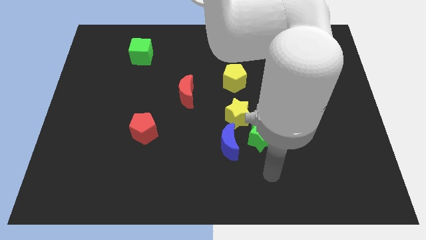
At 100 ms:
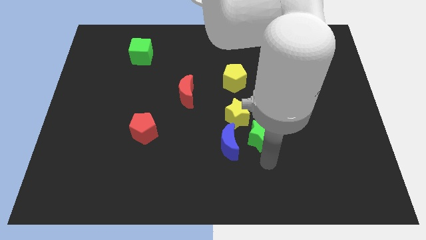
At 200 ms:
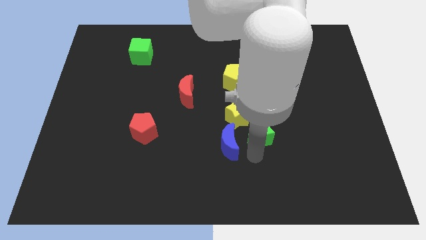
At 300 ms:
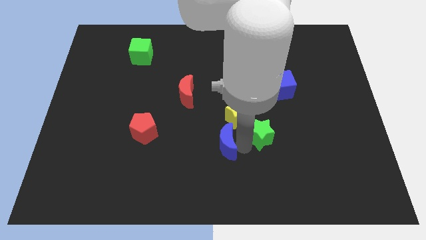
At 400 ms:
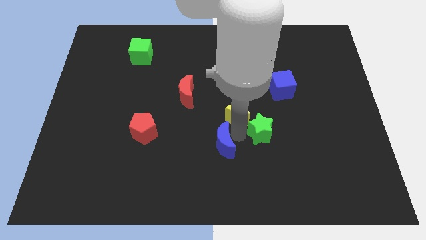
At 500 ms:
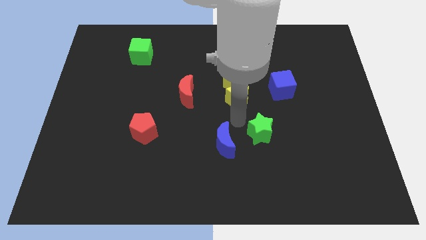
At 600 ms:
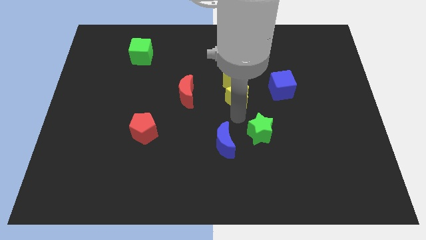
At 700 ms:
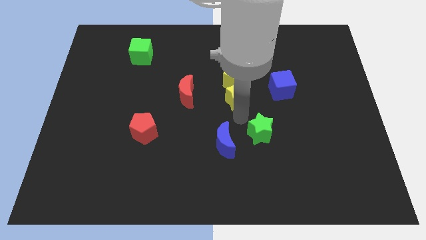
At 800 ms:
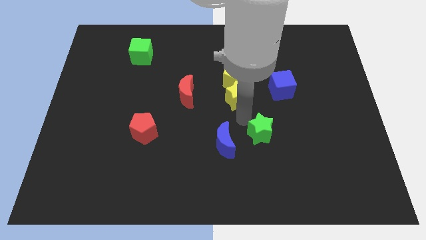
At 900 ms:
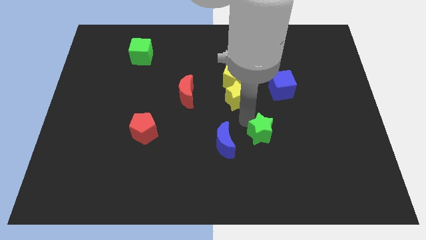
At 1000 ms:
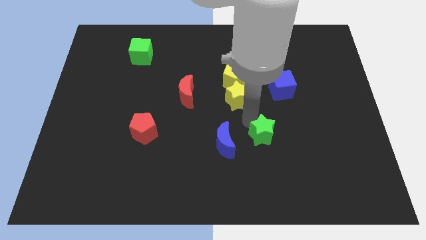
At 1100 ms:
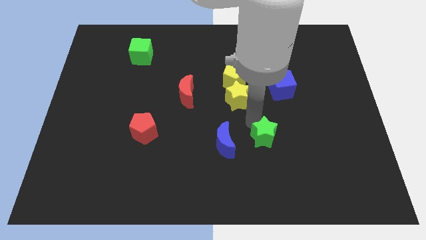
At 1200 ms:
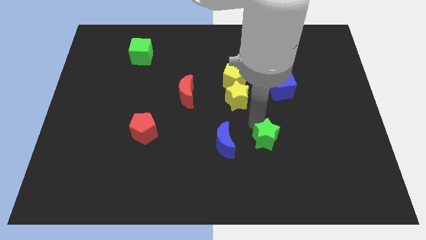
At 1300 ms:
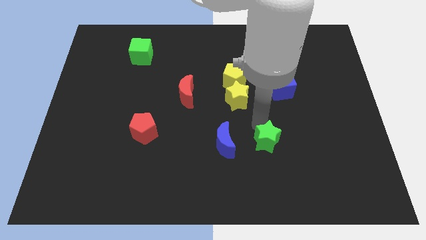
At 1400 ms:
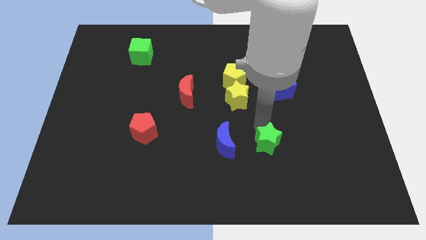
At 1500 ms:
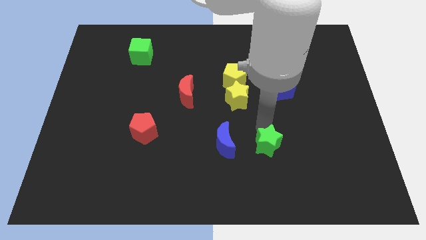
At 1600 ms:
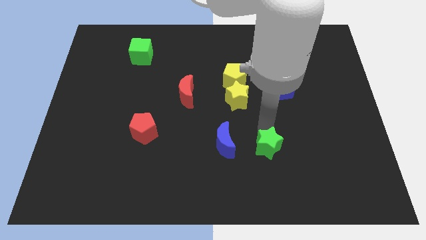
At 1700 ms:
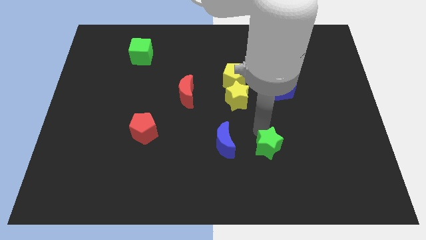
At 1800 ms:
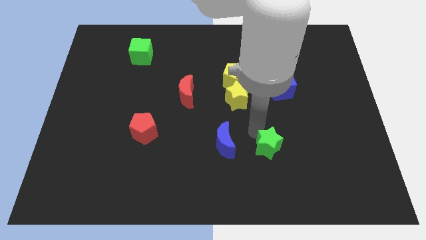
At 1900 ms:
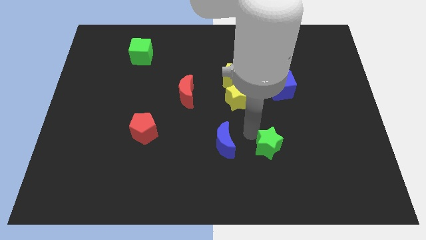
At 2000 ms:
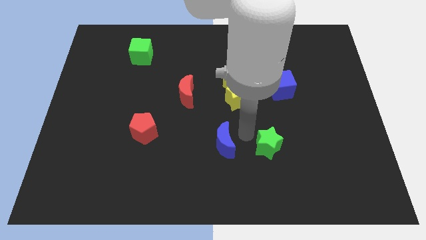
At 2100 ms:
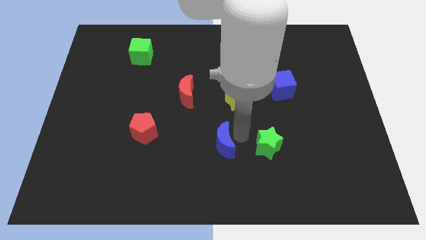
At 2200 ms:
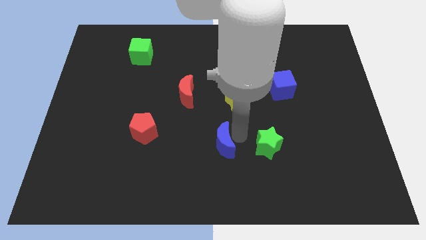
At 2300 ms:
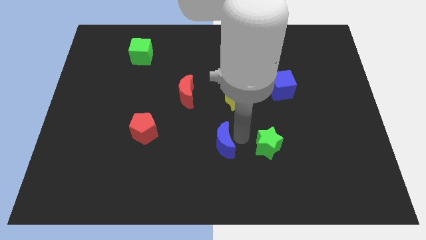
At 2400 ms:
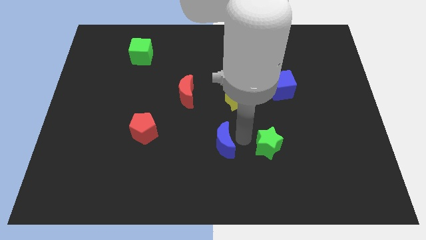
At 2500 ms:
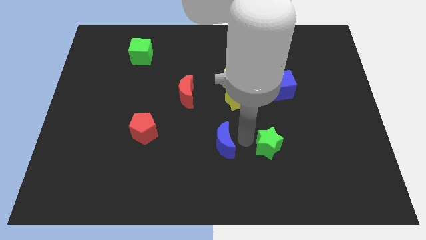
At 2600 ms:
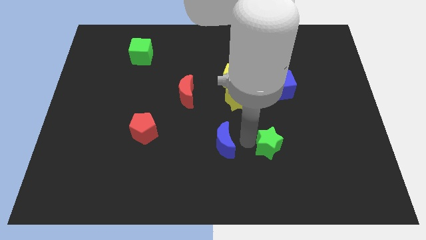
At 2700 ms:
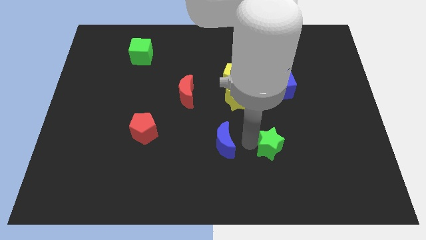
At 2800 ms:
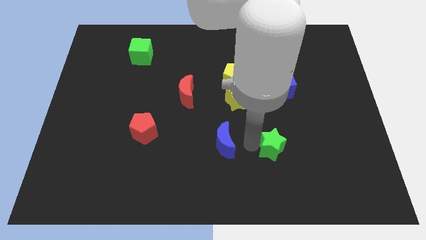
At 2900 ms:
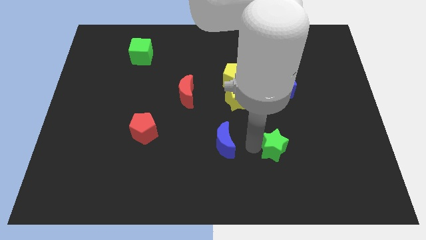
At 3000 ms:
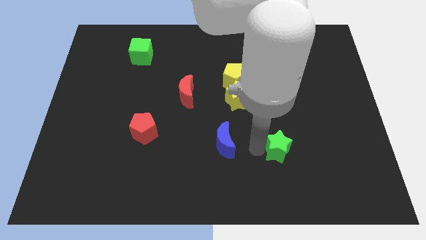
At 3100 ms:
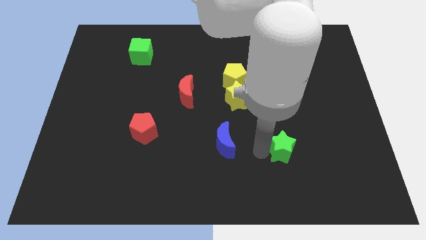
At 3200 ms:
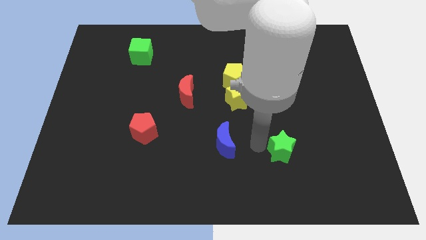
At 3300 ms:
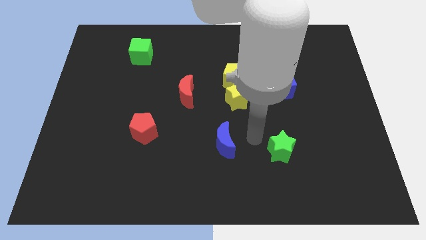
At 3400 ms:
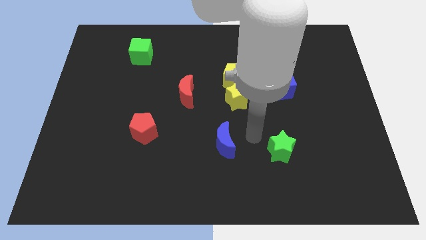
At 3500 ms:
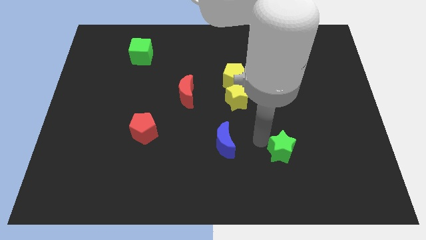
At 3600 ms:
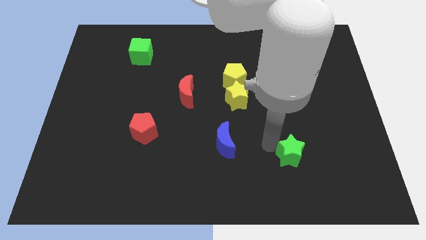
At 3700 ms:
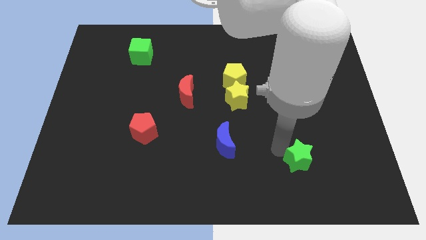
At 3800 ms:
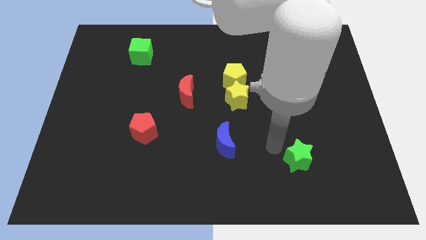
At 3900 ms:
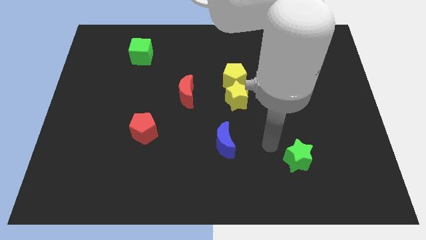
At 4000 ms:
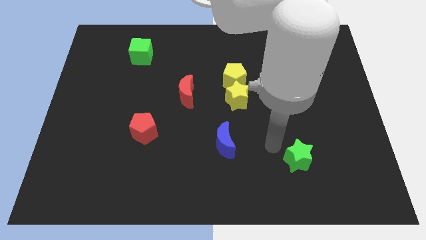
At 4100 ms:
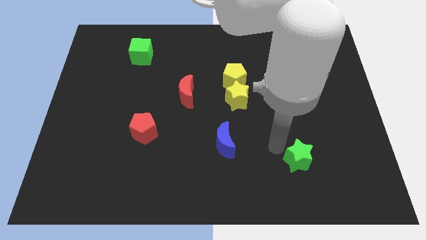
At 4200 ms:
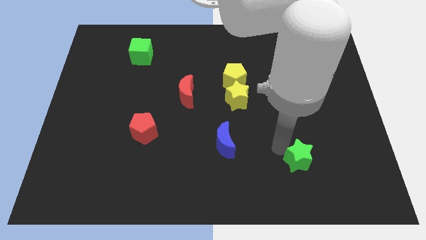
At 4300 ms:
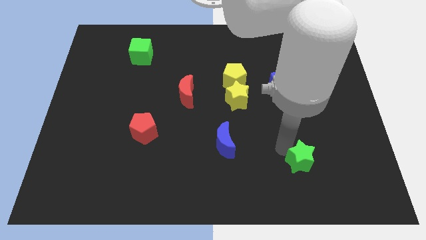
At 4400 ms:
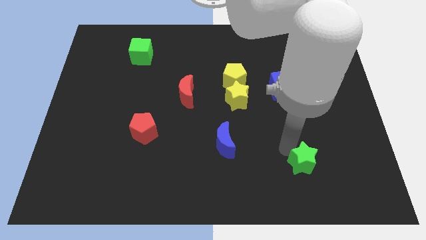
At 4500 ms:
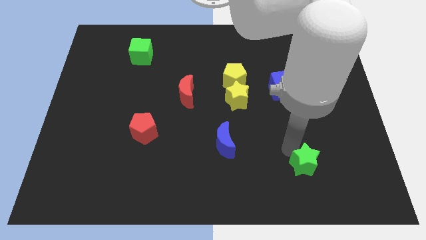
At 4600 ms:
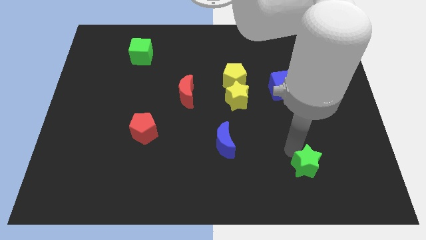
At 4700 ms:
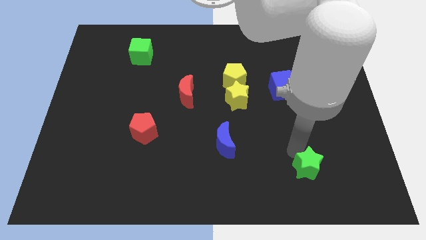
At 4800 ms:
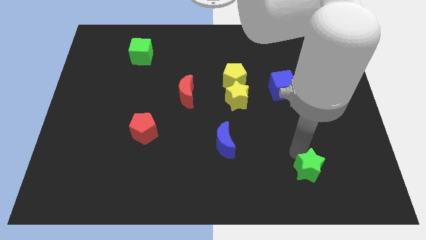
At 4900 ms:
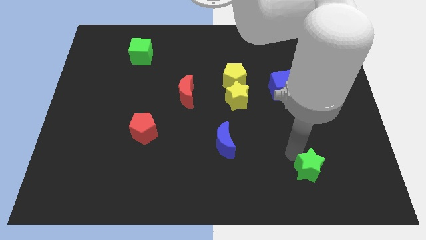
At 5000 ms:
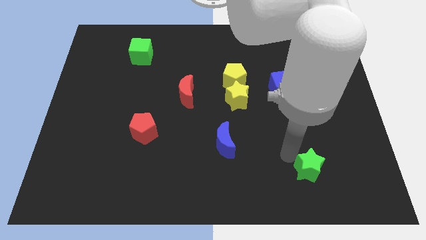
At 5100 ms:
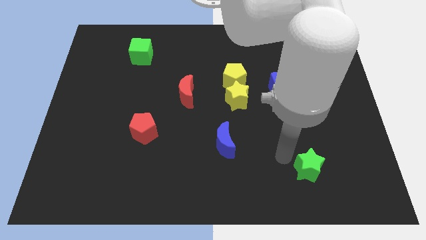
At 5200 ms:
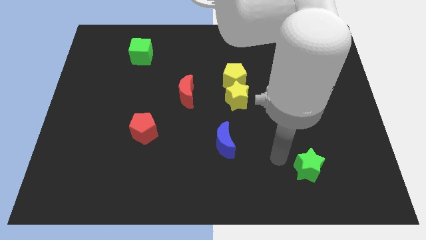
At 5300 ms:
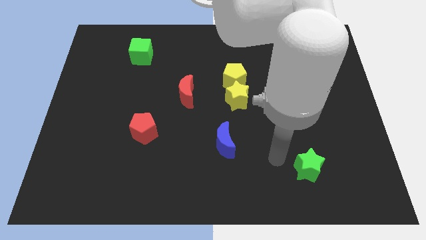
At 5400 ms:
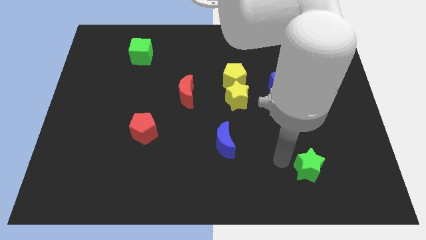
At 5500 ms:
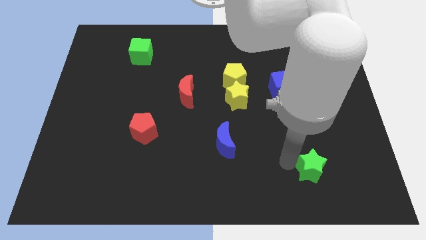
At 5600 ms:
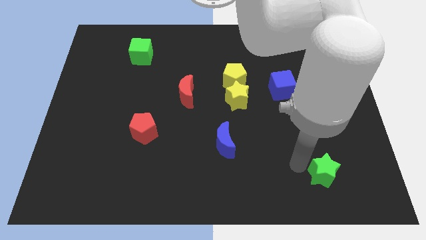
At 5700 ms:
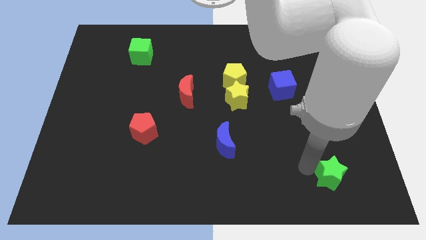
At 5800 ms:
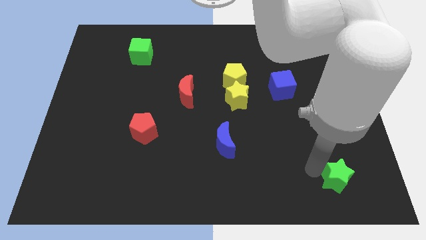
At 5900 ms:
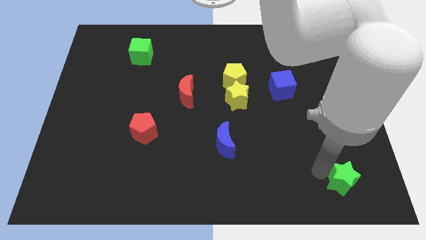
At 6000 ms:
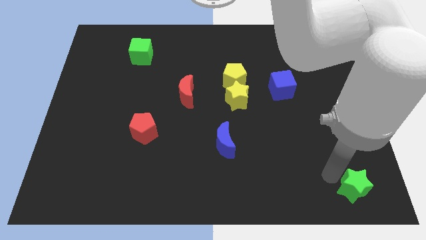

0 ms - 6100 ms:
slide the green star to the lower right corner
